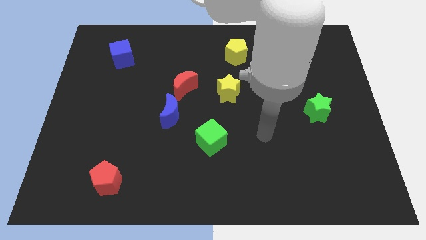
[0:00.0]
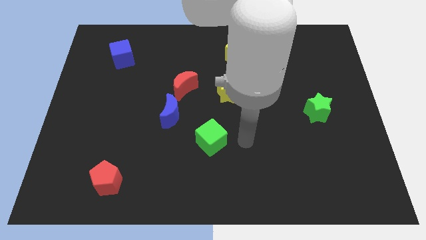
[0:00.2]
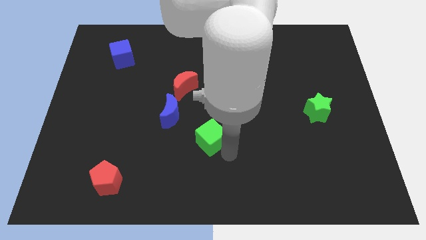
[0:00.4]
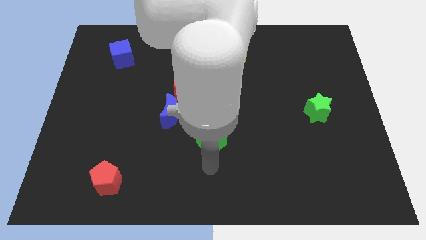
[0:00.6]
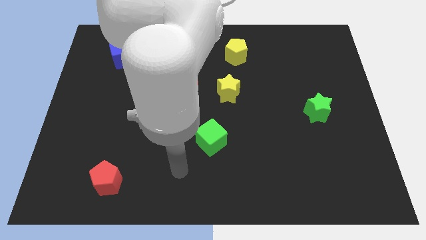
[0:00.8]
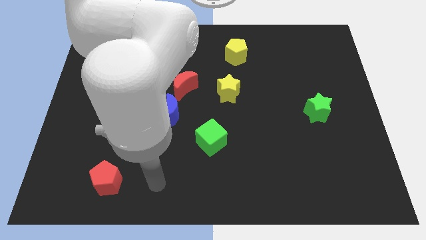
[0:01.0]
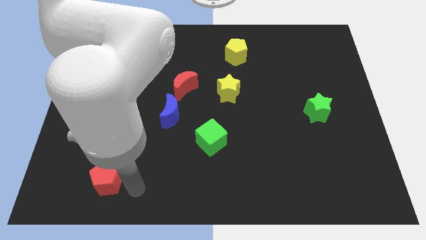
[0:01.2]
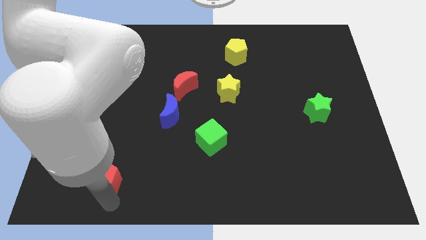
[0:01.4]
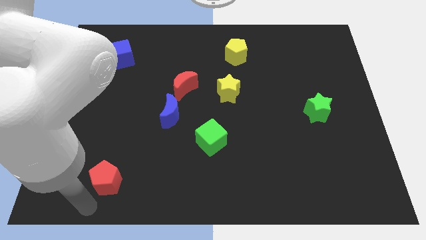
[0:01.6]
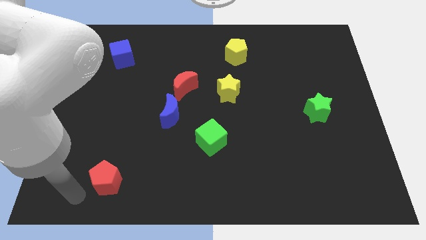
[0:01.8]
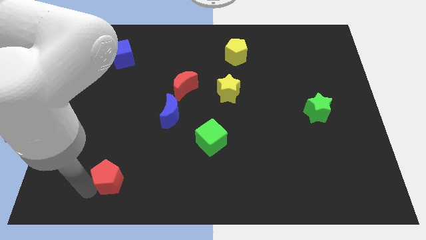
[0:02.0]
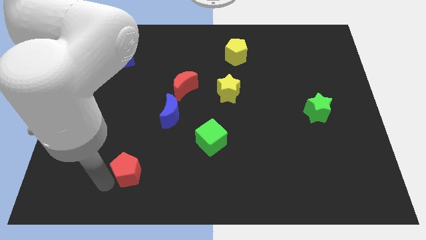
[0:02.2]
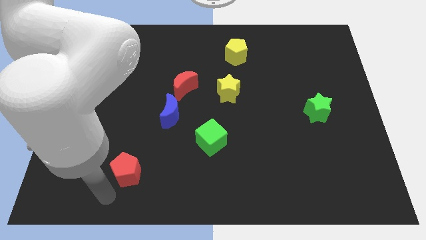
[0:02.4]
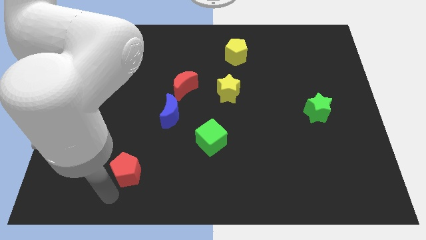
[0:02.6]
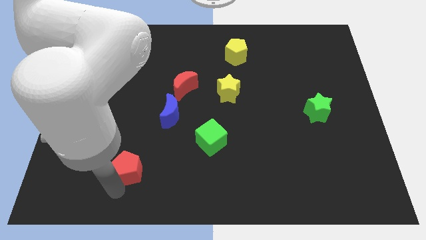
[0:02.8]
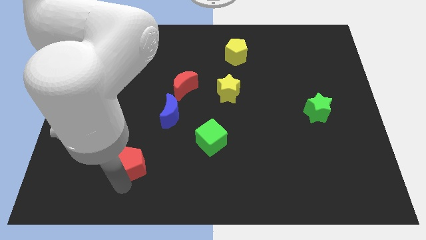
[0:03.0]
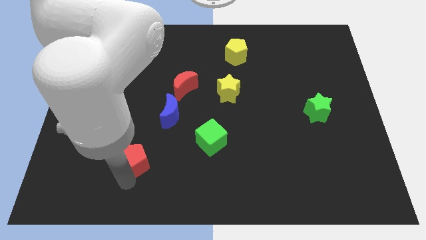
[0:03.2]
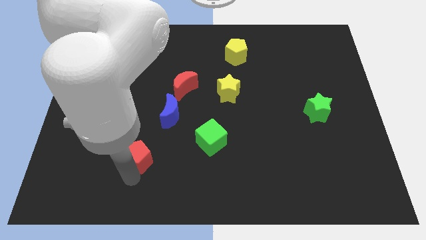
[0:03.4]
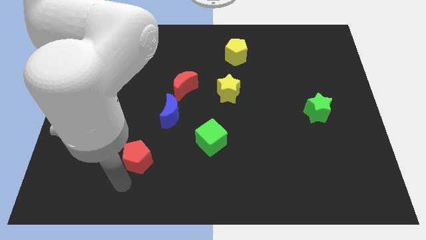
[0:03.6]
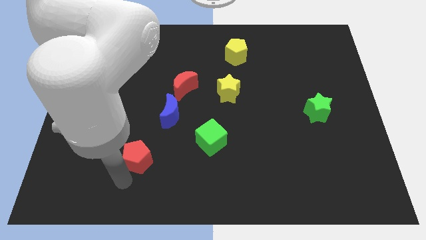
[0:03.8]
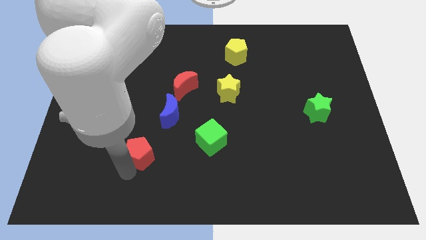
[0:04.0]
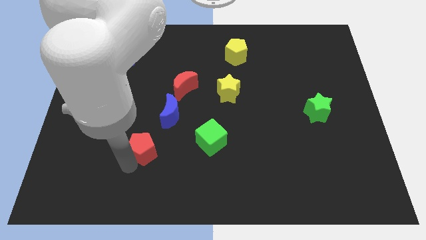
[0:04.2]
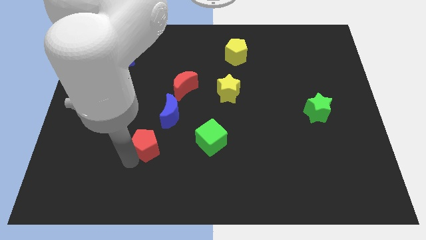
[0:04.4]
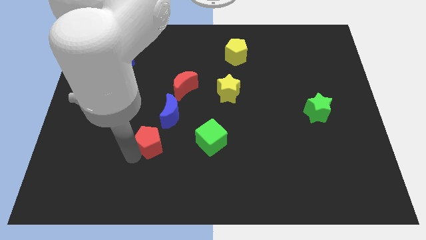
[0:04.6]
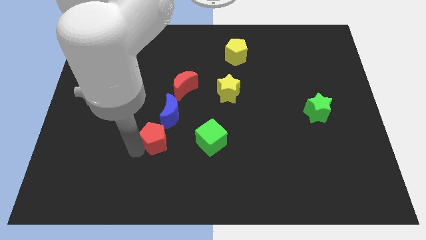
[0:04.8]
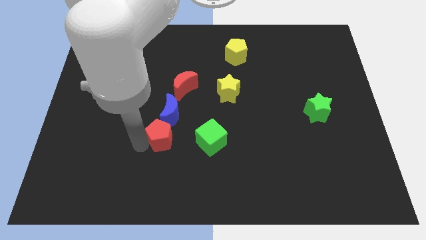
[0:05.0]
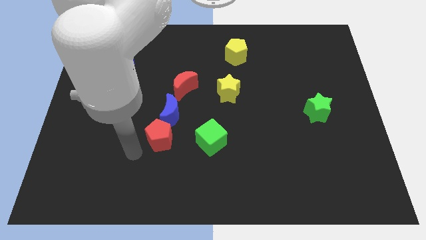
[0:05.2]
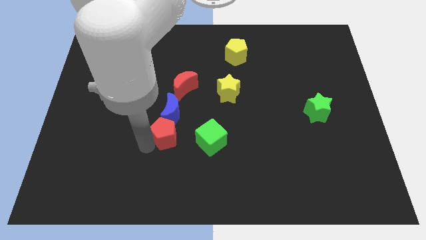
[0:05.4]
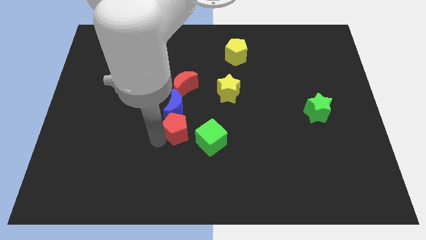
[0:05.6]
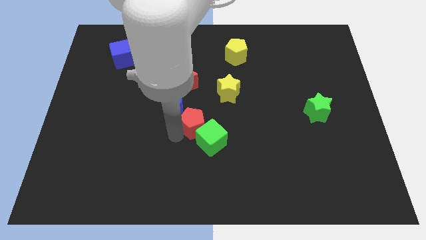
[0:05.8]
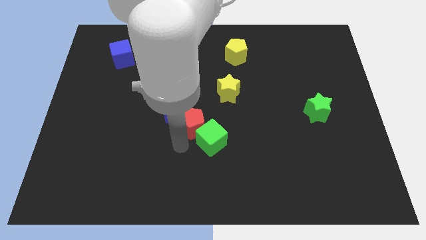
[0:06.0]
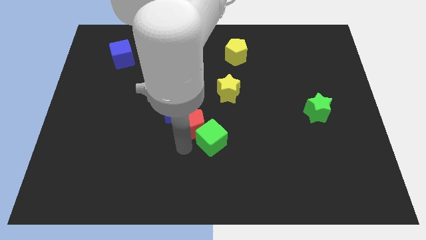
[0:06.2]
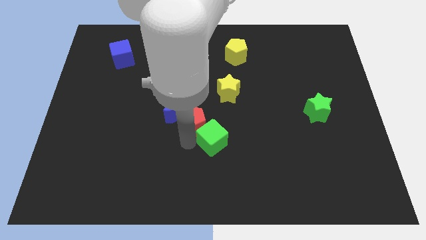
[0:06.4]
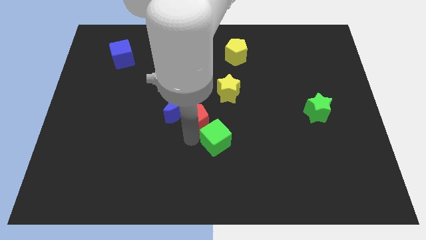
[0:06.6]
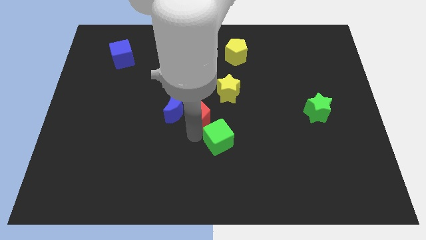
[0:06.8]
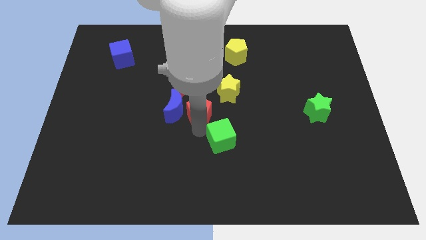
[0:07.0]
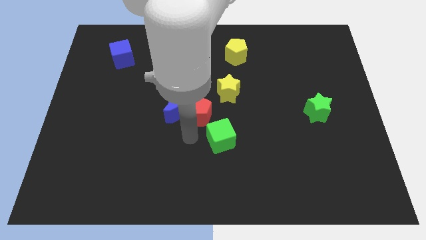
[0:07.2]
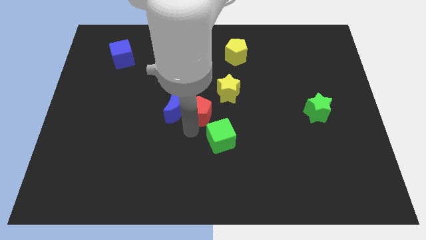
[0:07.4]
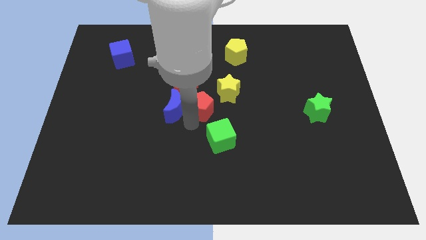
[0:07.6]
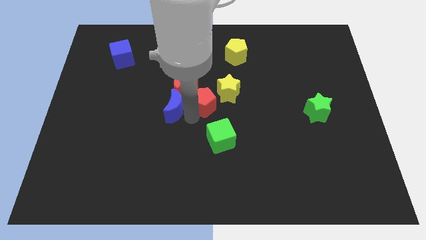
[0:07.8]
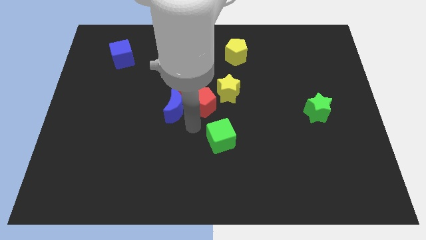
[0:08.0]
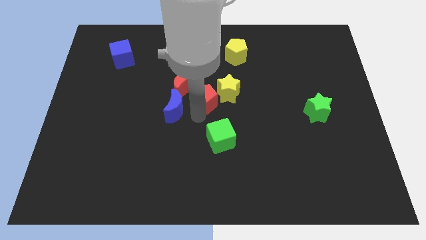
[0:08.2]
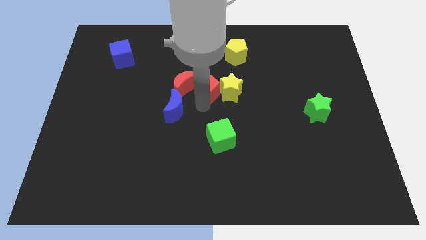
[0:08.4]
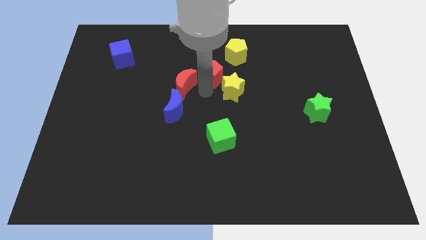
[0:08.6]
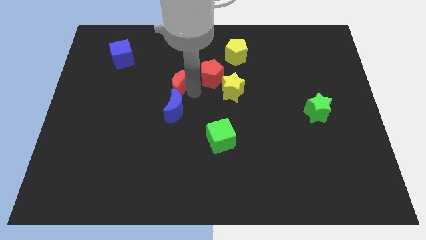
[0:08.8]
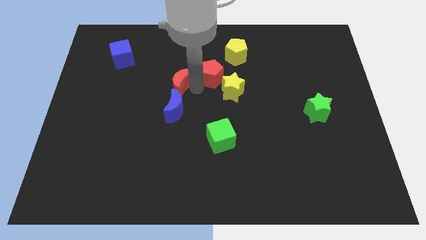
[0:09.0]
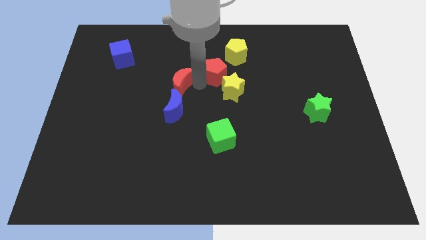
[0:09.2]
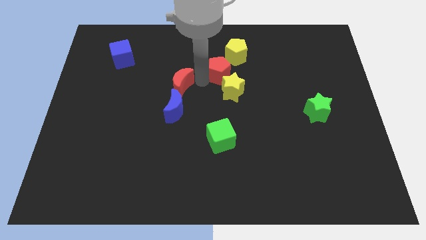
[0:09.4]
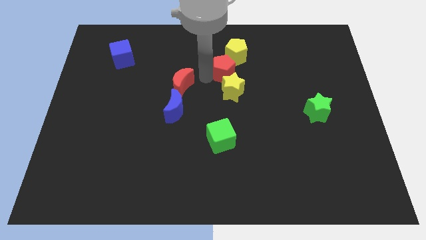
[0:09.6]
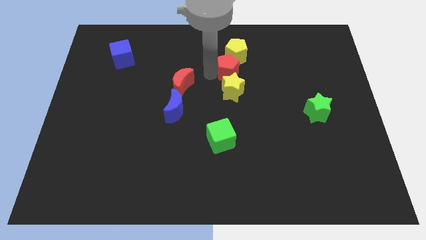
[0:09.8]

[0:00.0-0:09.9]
push the red pentagon to the yellow pentagon

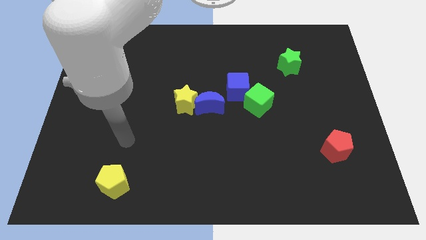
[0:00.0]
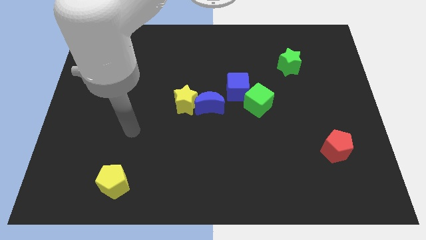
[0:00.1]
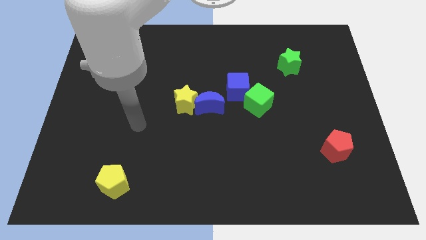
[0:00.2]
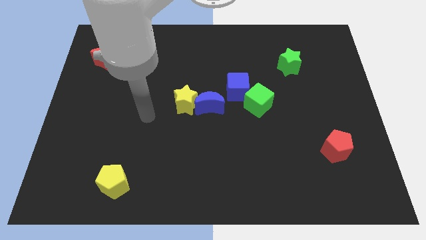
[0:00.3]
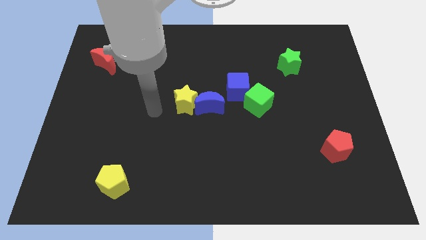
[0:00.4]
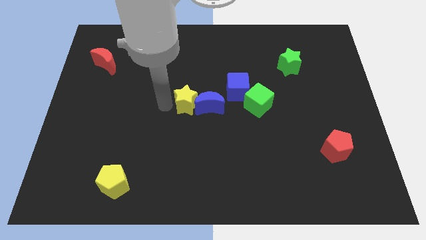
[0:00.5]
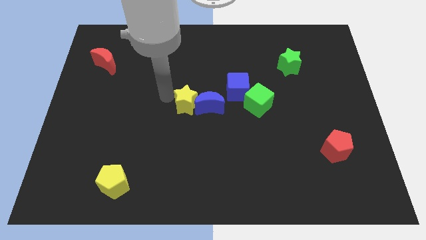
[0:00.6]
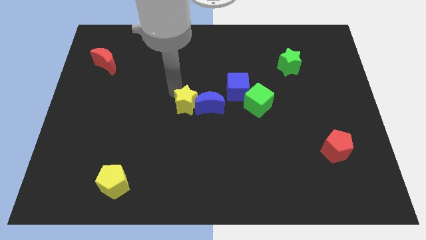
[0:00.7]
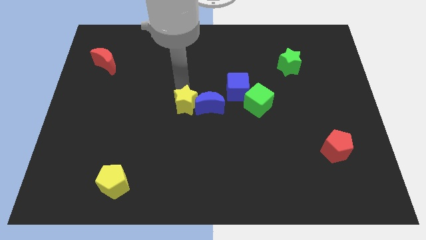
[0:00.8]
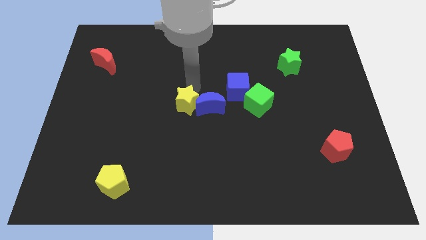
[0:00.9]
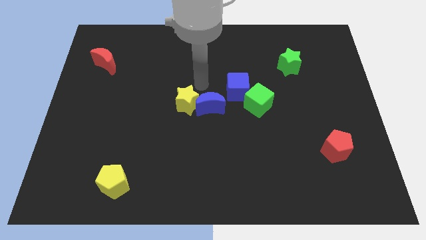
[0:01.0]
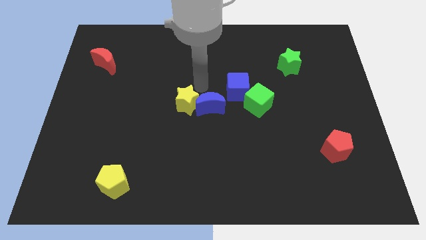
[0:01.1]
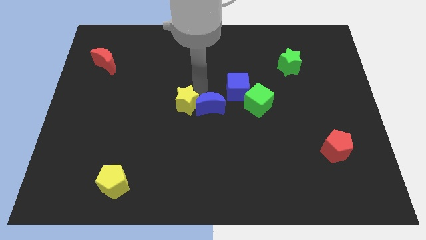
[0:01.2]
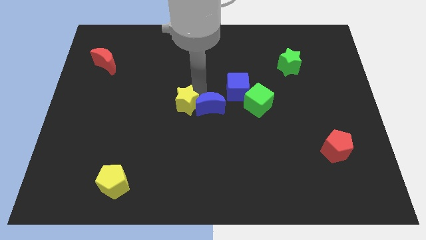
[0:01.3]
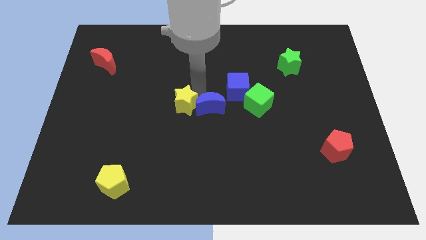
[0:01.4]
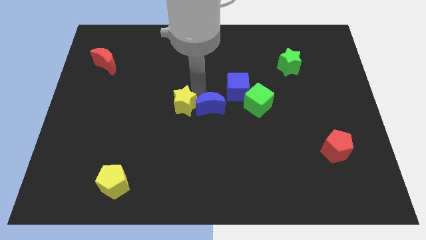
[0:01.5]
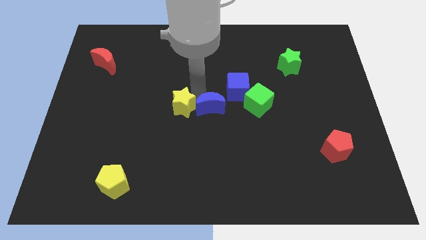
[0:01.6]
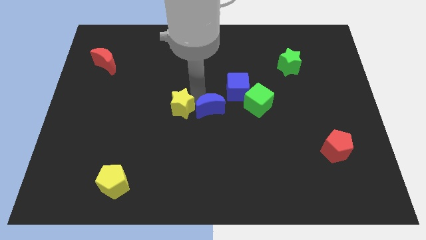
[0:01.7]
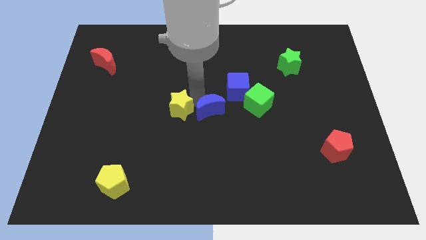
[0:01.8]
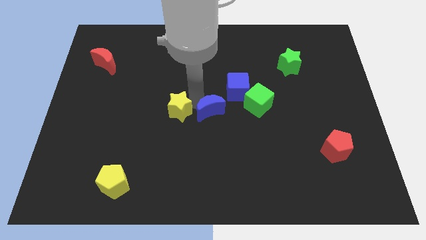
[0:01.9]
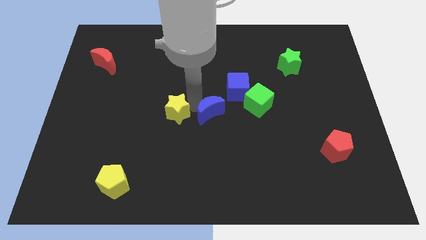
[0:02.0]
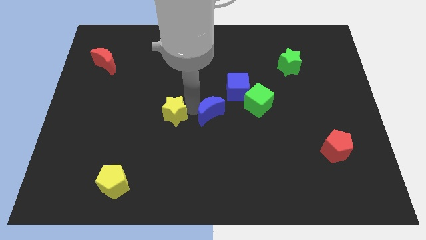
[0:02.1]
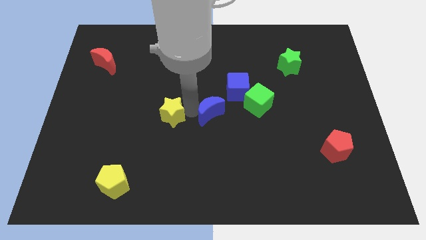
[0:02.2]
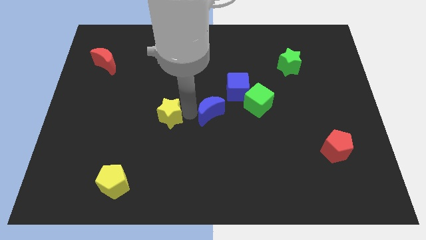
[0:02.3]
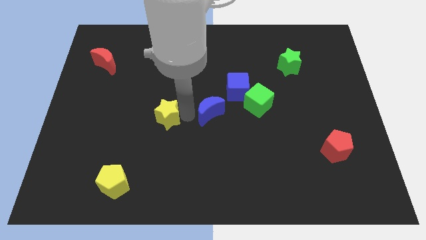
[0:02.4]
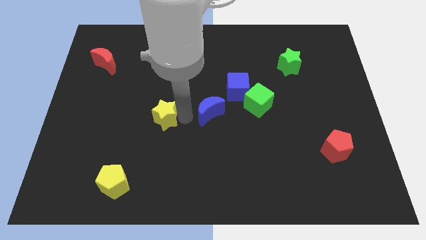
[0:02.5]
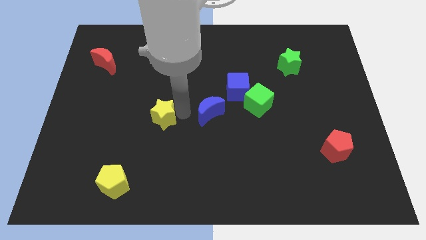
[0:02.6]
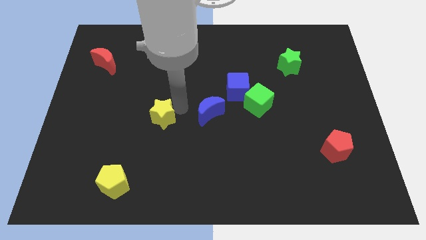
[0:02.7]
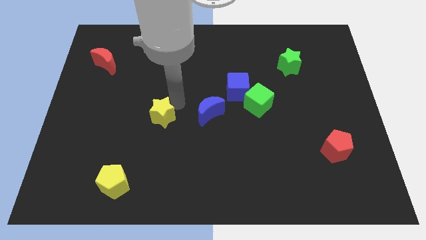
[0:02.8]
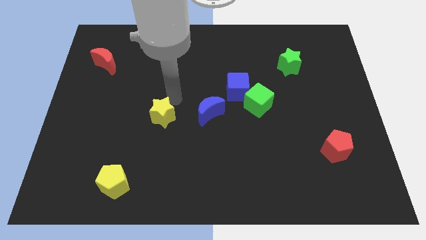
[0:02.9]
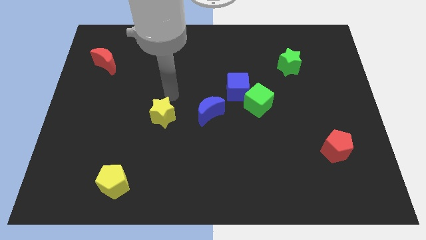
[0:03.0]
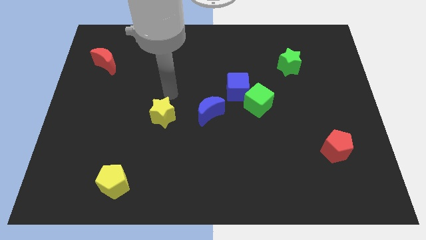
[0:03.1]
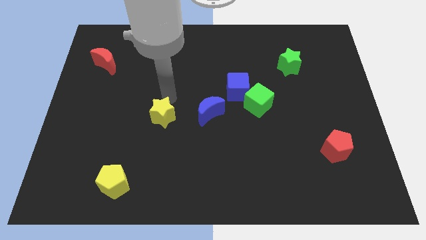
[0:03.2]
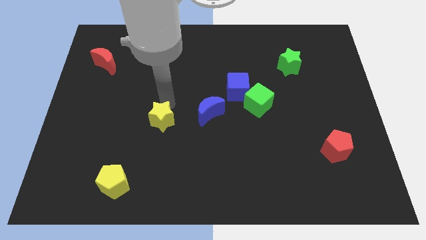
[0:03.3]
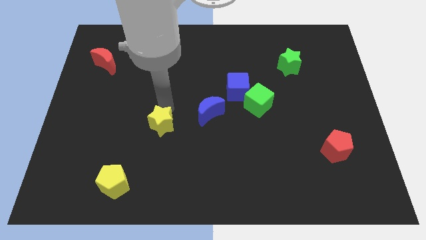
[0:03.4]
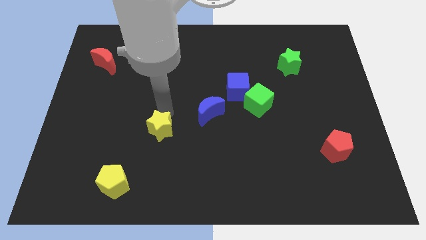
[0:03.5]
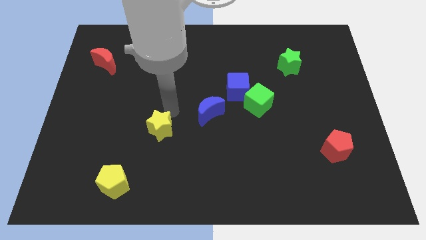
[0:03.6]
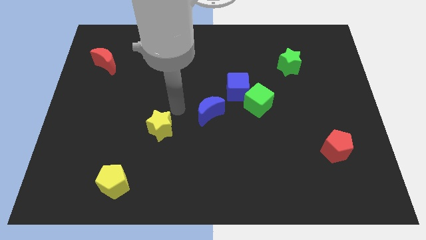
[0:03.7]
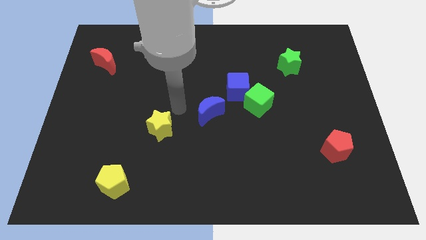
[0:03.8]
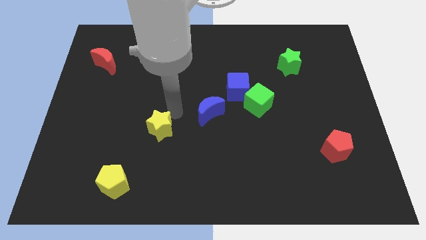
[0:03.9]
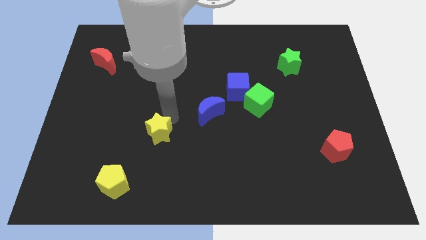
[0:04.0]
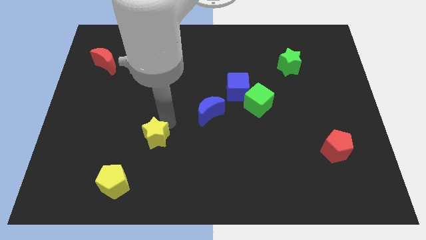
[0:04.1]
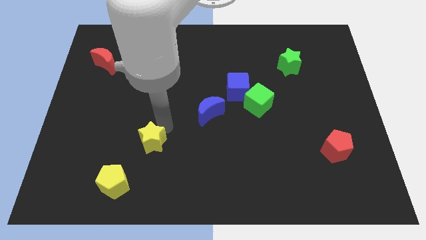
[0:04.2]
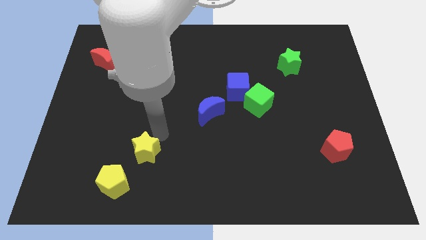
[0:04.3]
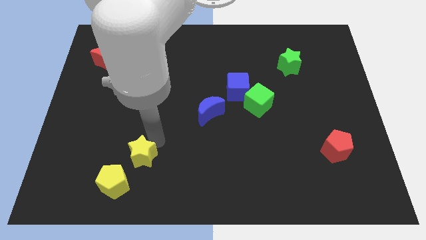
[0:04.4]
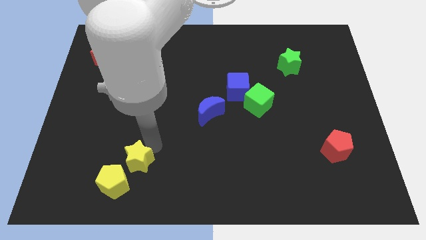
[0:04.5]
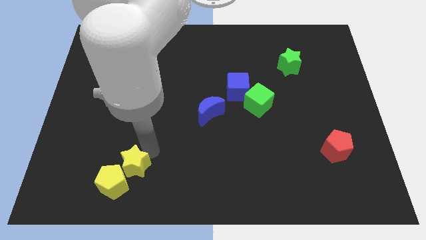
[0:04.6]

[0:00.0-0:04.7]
slide the yellow star next to the yellow pentagon
